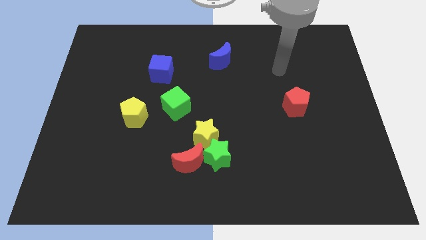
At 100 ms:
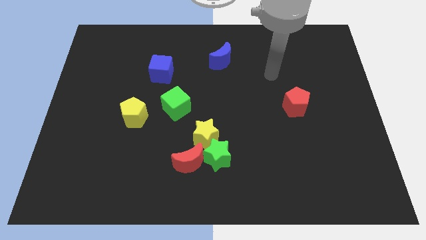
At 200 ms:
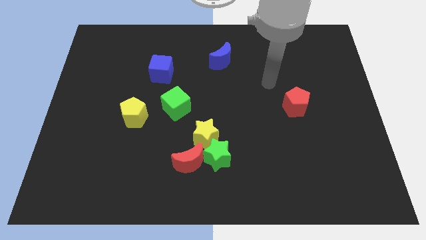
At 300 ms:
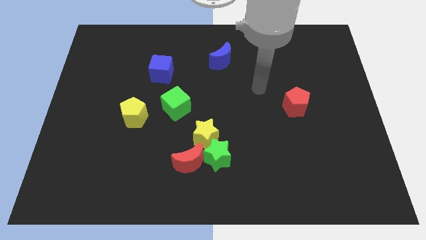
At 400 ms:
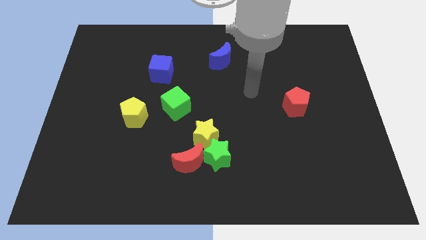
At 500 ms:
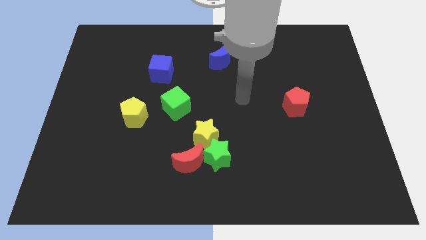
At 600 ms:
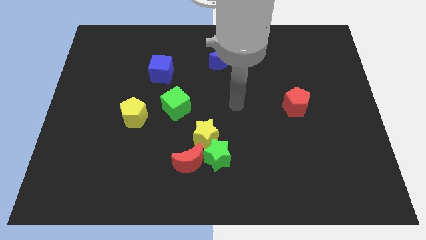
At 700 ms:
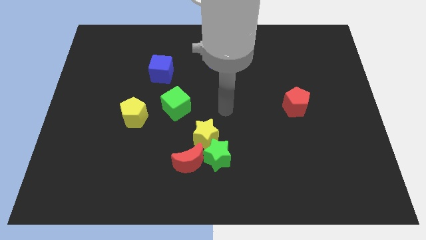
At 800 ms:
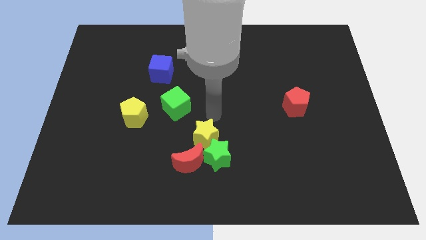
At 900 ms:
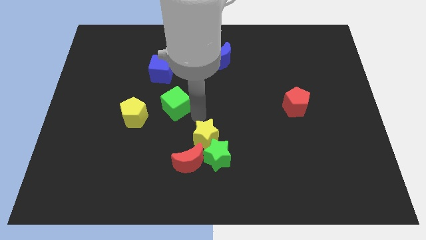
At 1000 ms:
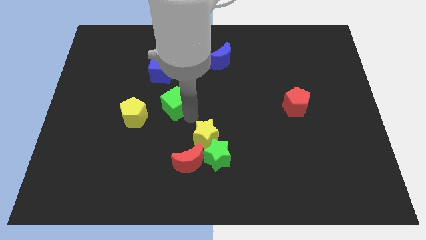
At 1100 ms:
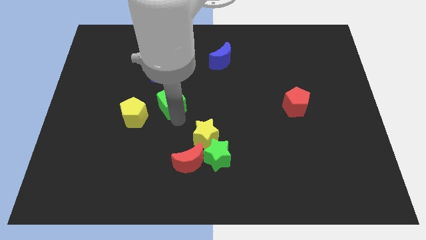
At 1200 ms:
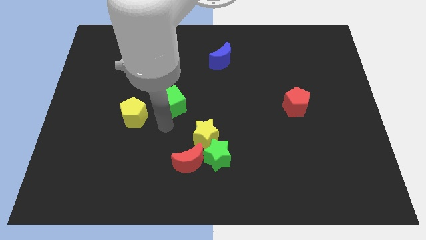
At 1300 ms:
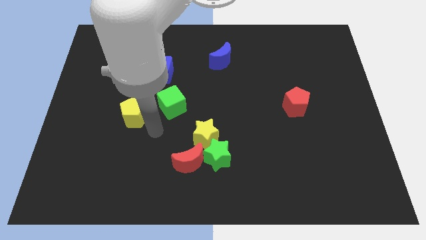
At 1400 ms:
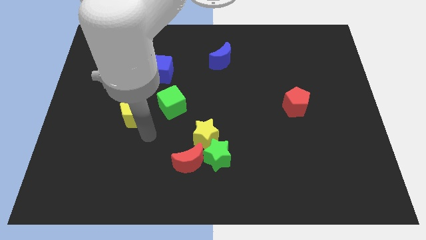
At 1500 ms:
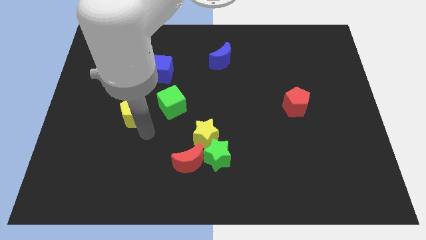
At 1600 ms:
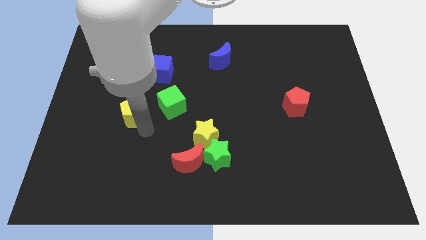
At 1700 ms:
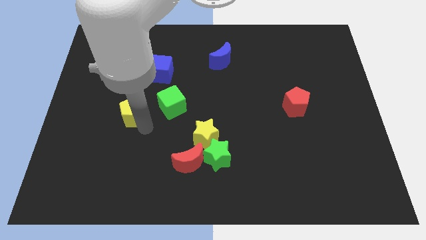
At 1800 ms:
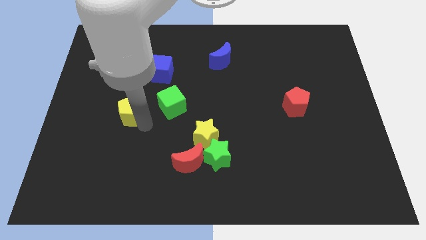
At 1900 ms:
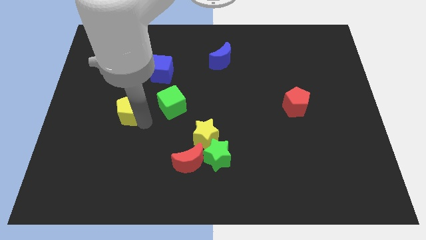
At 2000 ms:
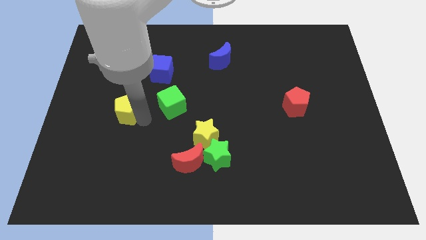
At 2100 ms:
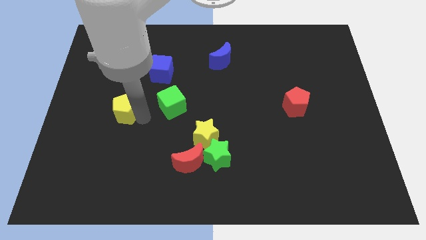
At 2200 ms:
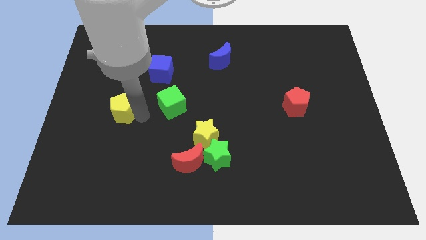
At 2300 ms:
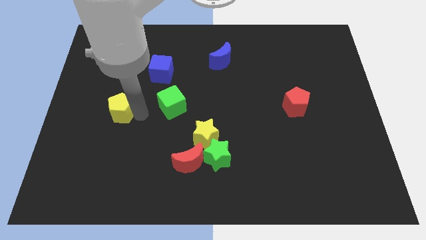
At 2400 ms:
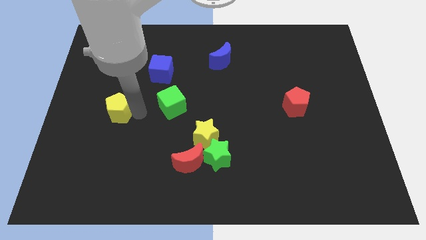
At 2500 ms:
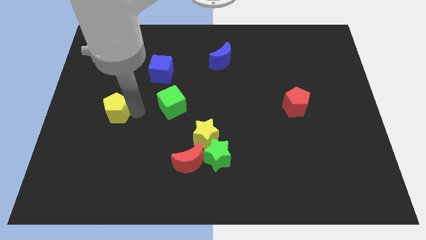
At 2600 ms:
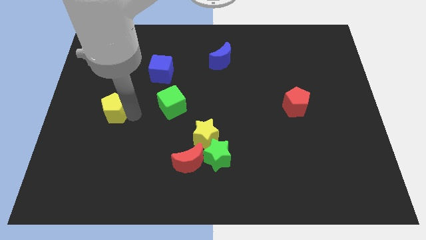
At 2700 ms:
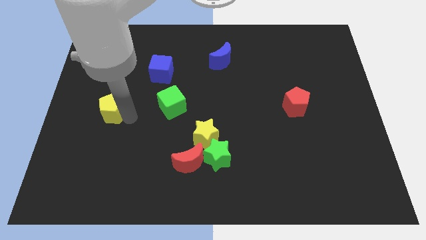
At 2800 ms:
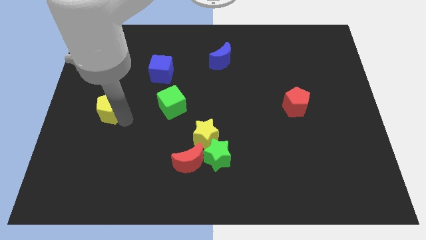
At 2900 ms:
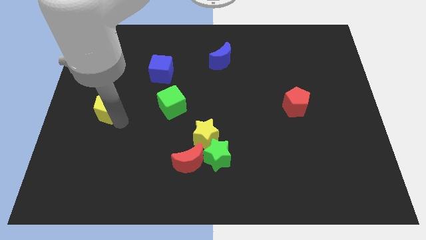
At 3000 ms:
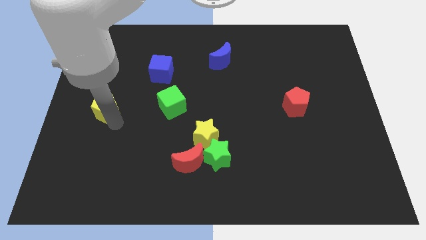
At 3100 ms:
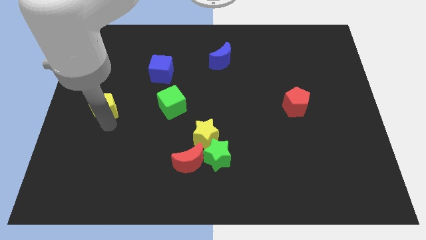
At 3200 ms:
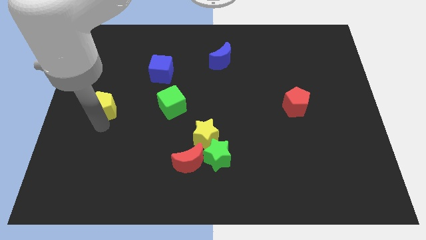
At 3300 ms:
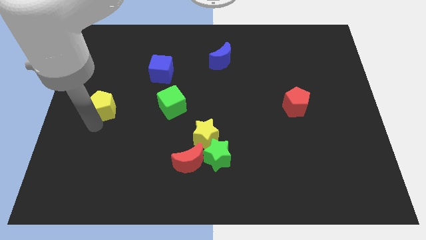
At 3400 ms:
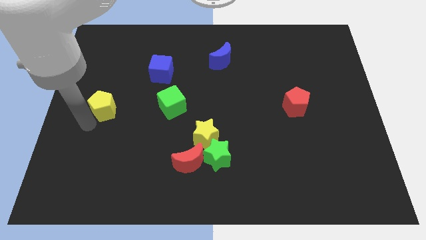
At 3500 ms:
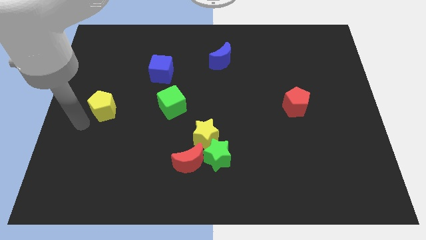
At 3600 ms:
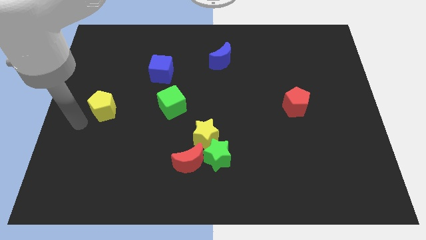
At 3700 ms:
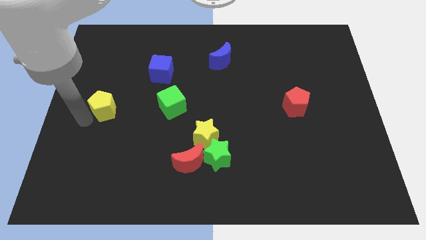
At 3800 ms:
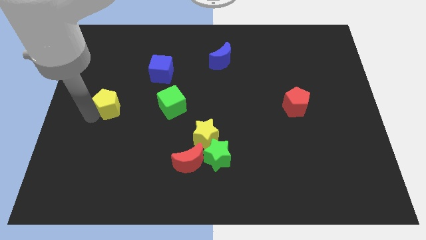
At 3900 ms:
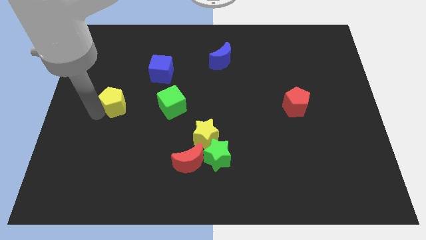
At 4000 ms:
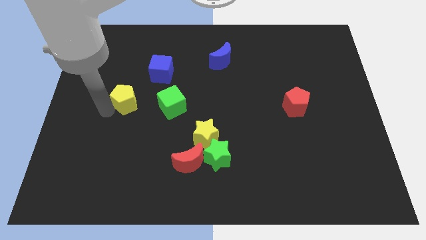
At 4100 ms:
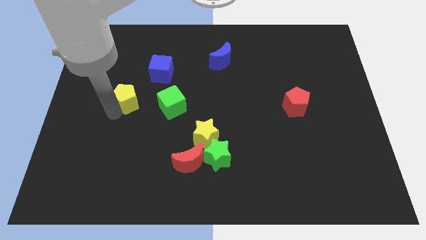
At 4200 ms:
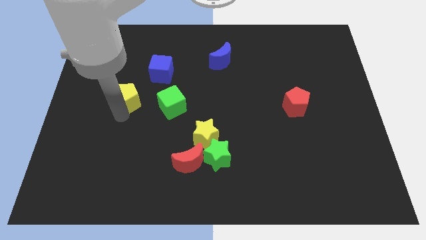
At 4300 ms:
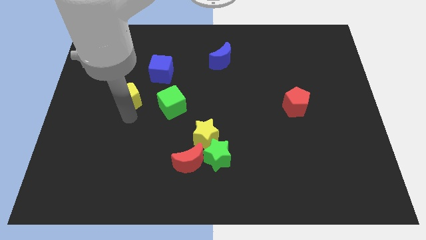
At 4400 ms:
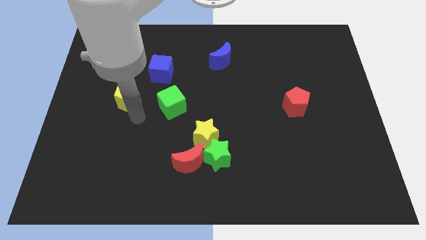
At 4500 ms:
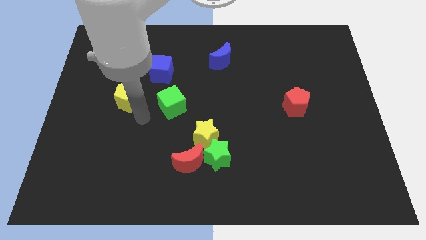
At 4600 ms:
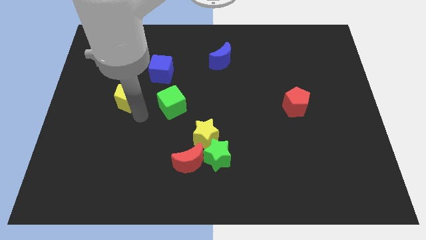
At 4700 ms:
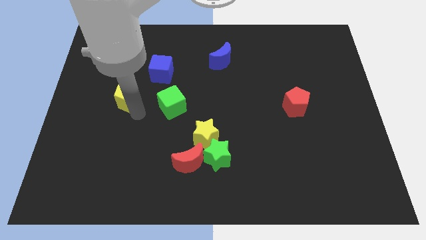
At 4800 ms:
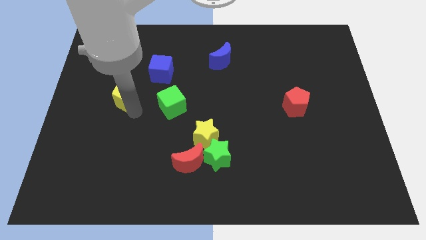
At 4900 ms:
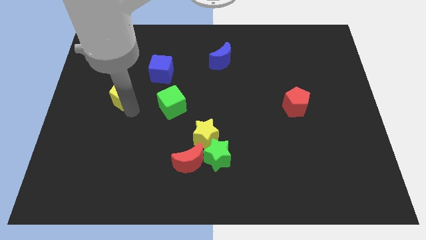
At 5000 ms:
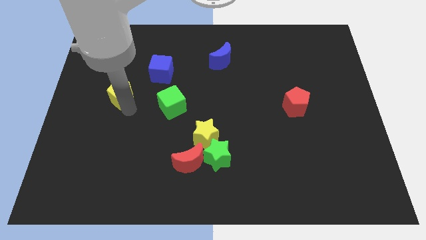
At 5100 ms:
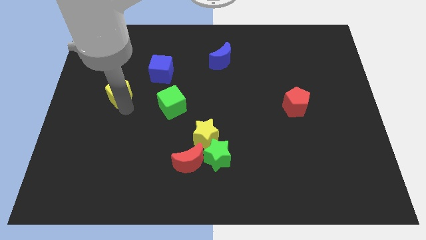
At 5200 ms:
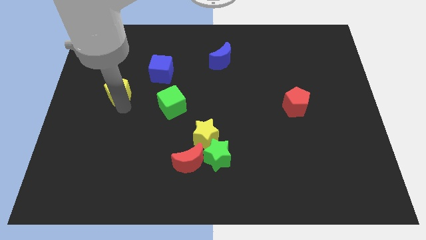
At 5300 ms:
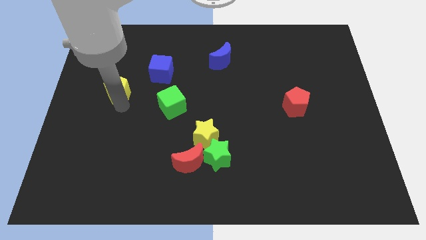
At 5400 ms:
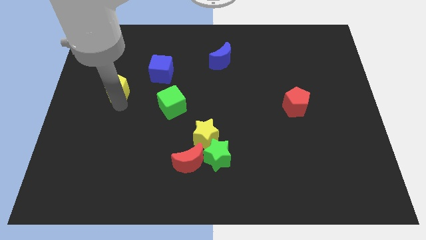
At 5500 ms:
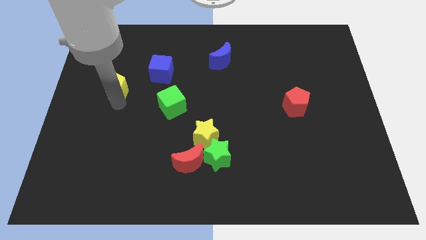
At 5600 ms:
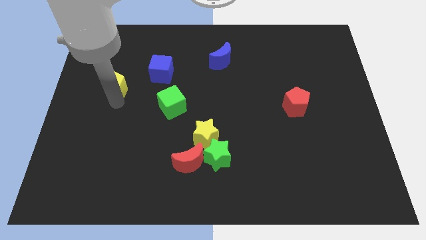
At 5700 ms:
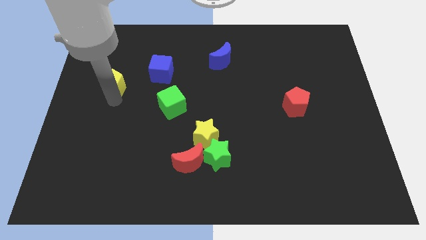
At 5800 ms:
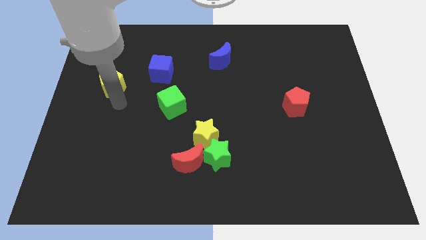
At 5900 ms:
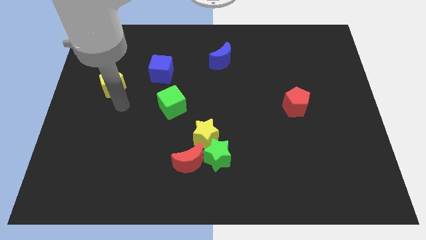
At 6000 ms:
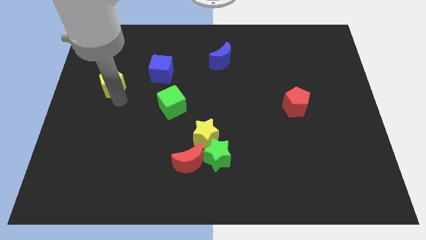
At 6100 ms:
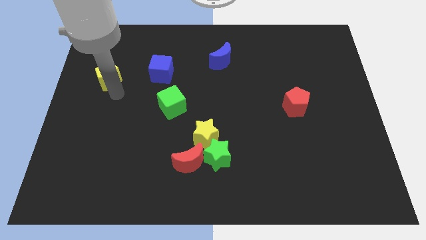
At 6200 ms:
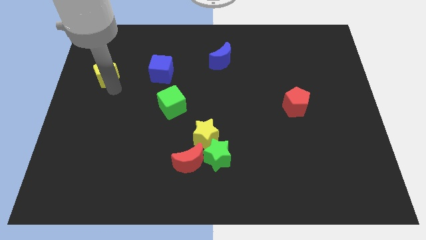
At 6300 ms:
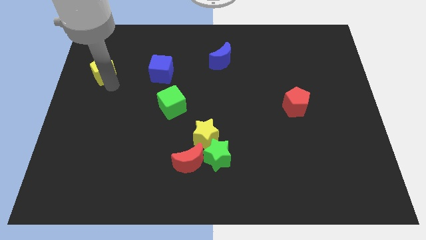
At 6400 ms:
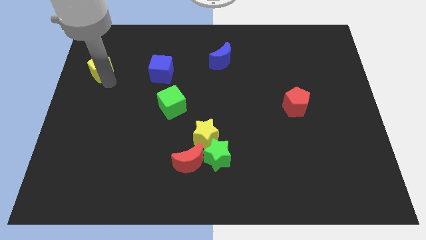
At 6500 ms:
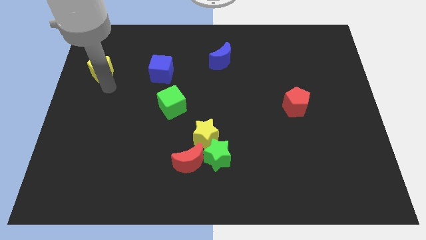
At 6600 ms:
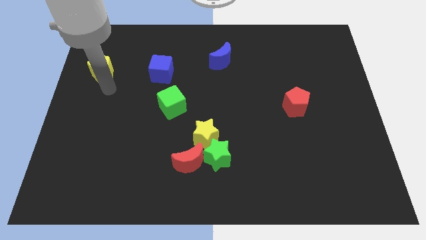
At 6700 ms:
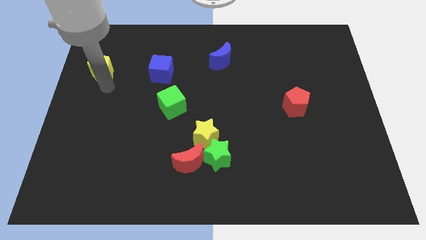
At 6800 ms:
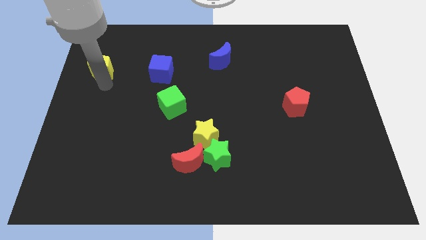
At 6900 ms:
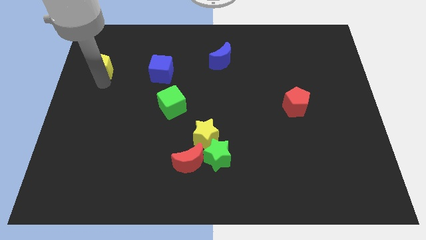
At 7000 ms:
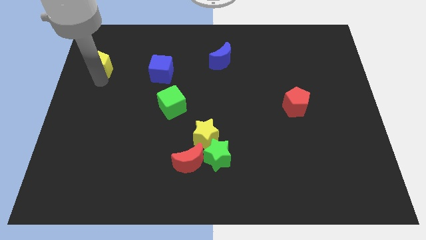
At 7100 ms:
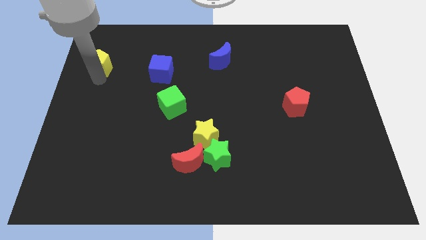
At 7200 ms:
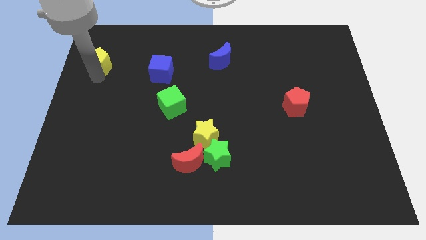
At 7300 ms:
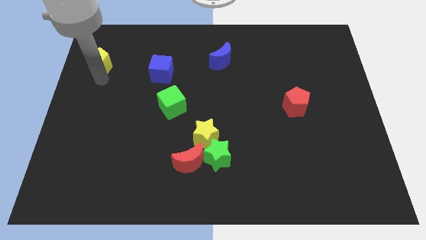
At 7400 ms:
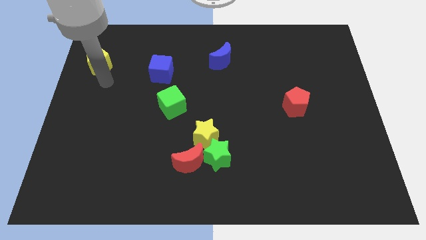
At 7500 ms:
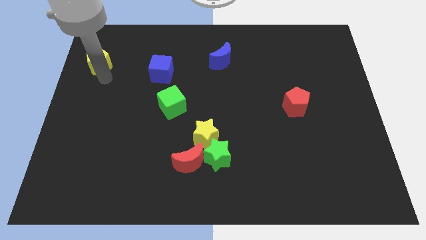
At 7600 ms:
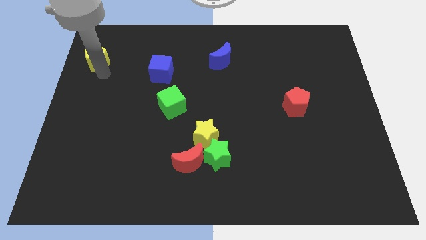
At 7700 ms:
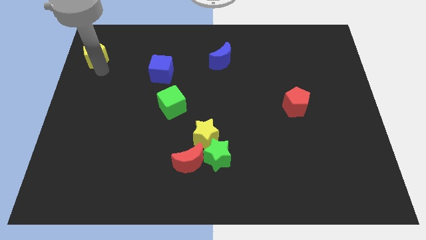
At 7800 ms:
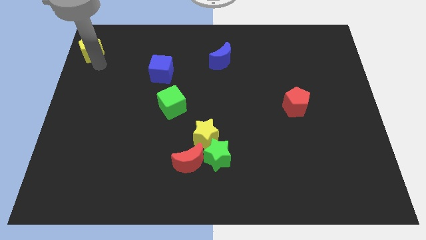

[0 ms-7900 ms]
put the yellow pentagon to the upper left corner
